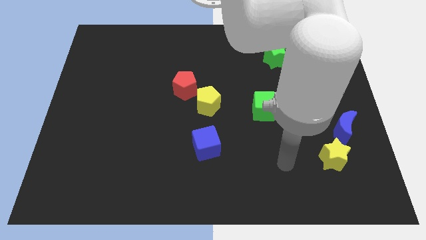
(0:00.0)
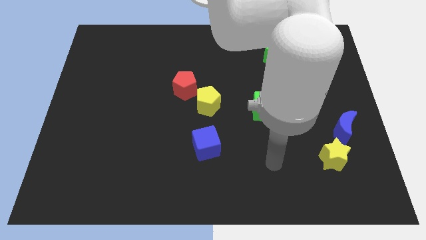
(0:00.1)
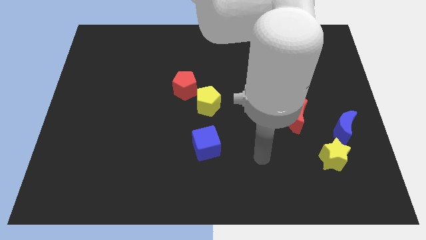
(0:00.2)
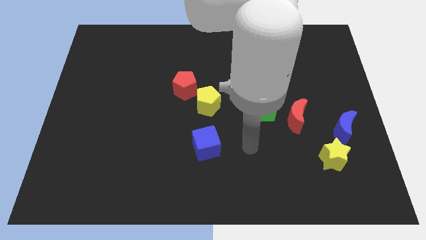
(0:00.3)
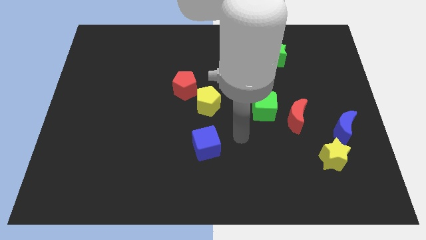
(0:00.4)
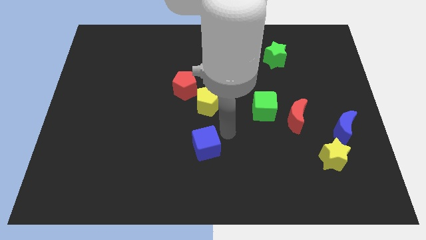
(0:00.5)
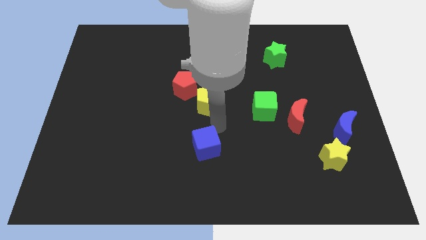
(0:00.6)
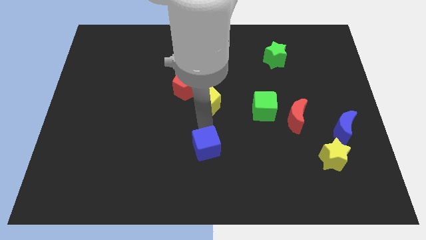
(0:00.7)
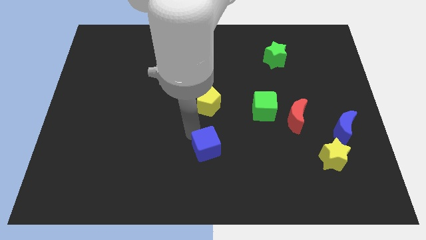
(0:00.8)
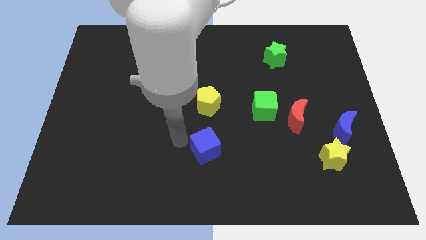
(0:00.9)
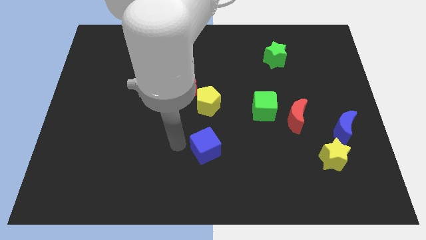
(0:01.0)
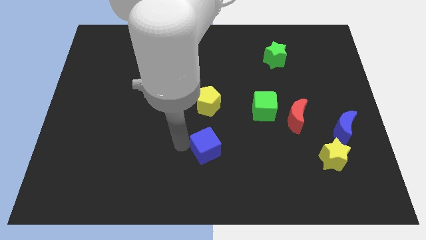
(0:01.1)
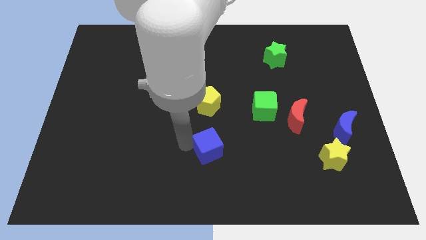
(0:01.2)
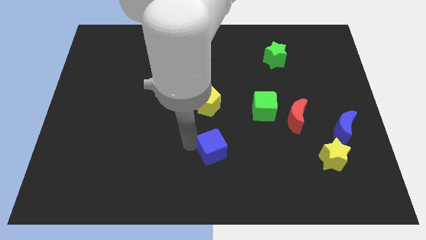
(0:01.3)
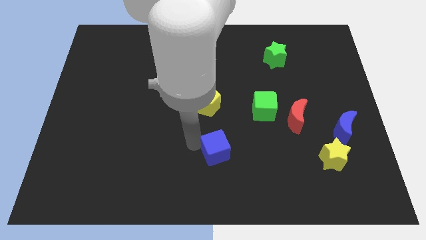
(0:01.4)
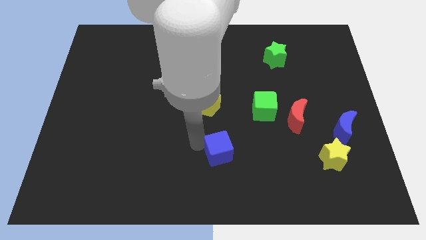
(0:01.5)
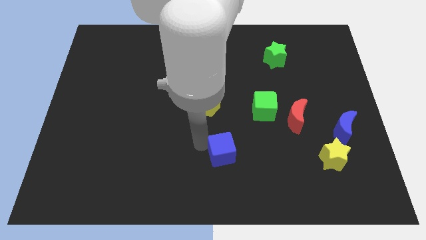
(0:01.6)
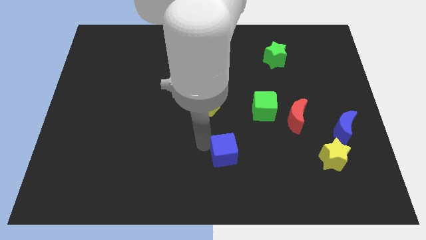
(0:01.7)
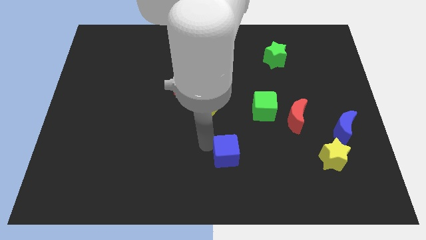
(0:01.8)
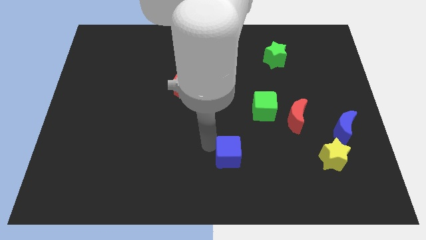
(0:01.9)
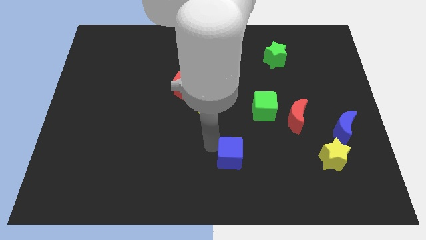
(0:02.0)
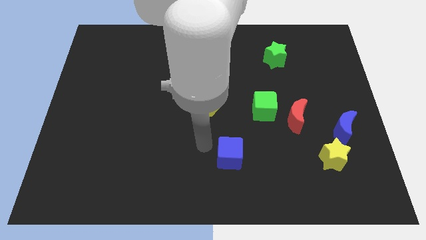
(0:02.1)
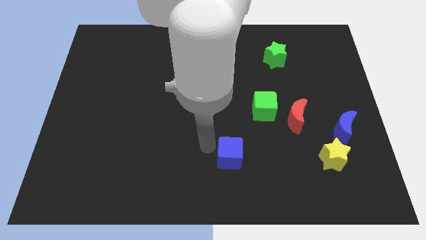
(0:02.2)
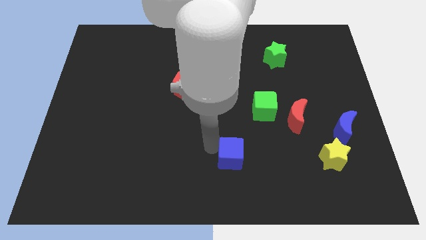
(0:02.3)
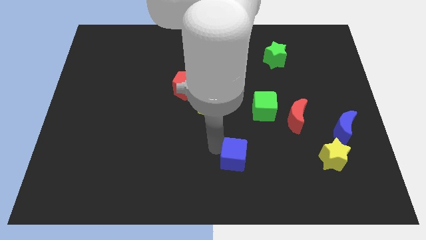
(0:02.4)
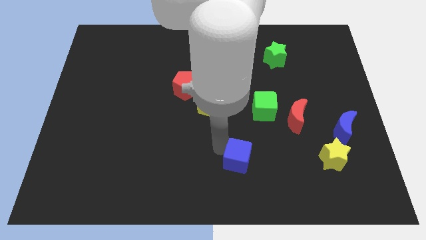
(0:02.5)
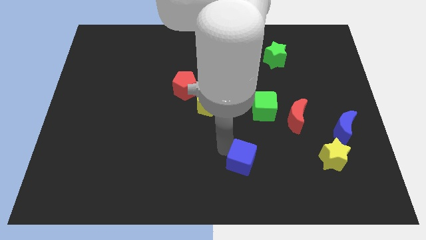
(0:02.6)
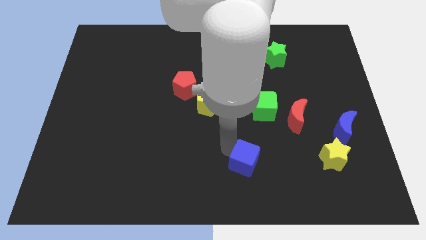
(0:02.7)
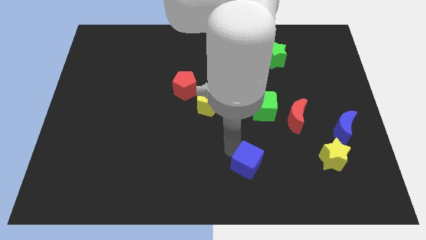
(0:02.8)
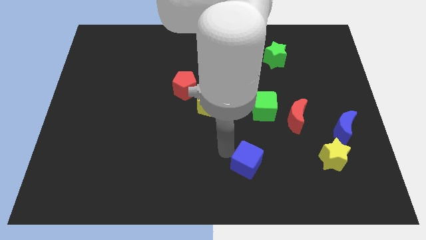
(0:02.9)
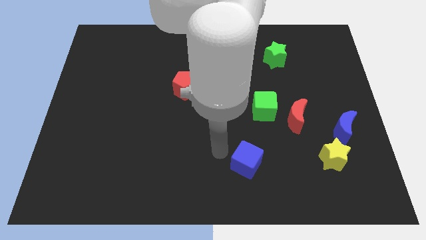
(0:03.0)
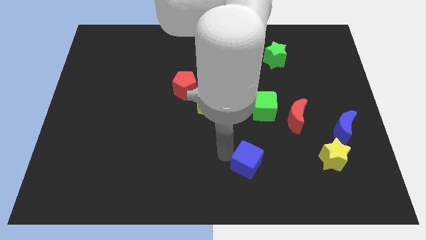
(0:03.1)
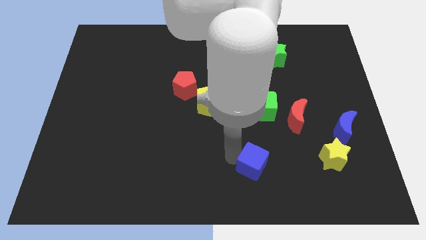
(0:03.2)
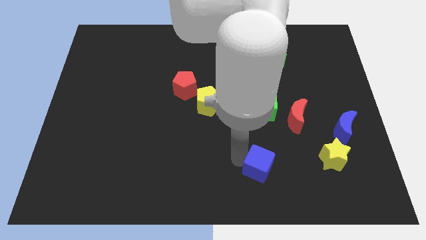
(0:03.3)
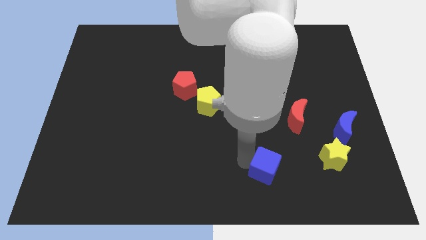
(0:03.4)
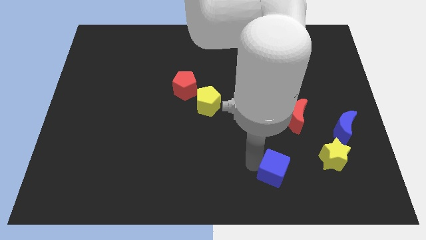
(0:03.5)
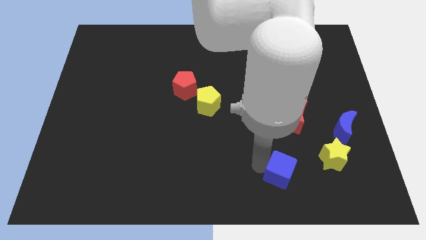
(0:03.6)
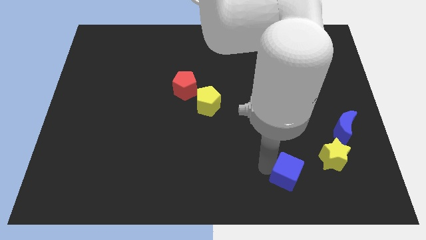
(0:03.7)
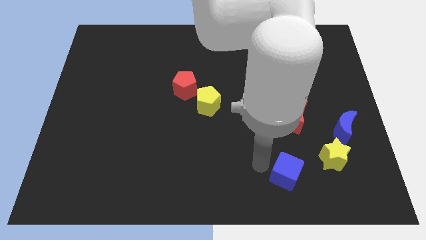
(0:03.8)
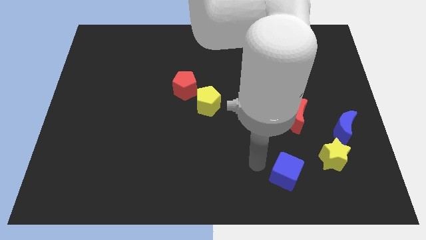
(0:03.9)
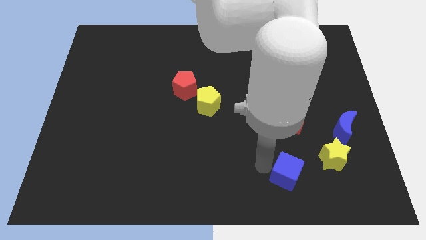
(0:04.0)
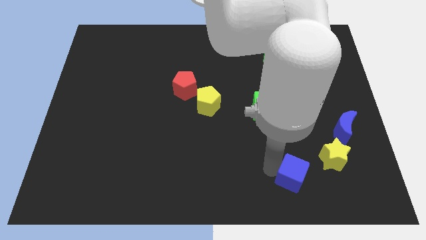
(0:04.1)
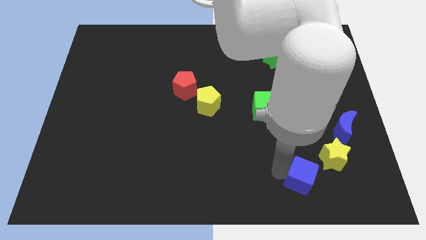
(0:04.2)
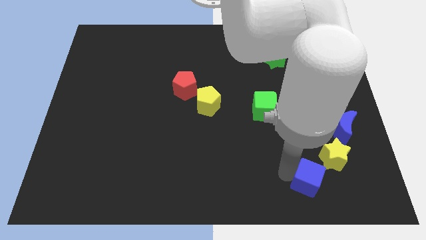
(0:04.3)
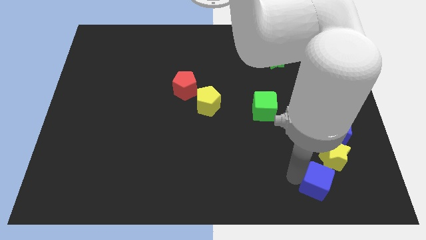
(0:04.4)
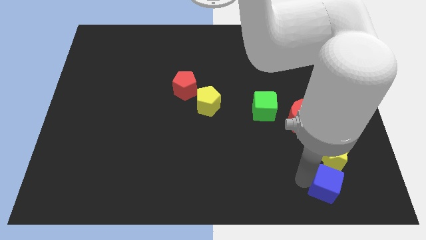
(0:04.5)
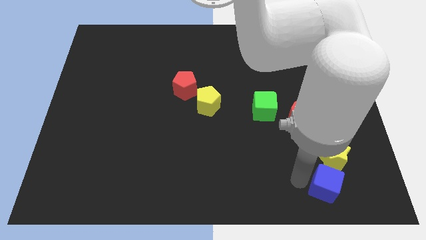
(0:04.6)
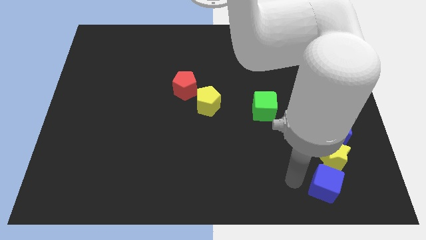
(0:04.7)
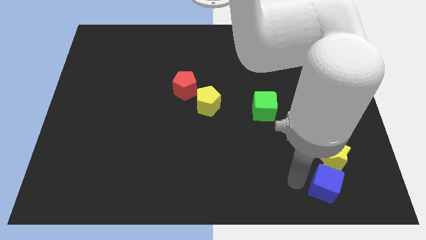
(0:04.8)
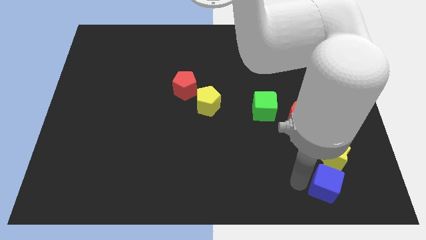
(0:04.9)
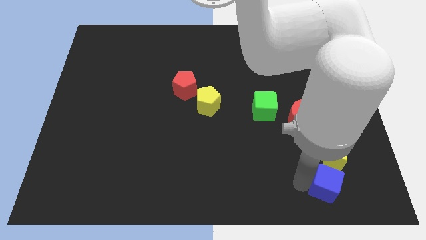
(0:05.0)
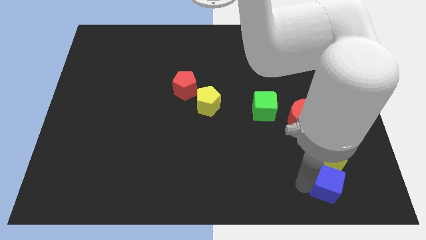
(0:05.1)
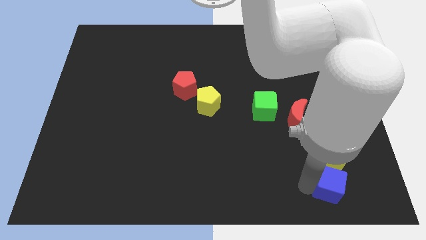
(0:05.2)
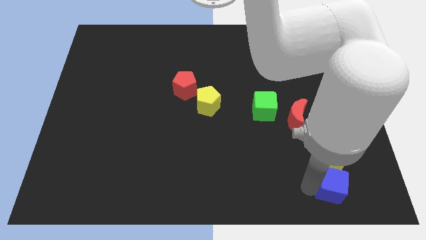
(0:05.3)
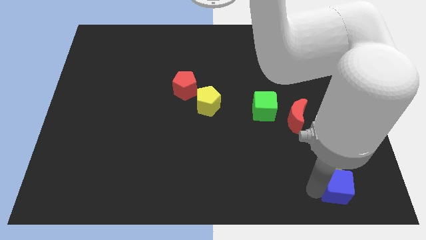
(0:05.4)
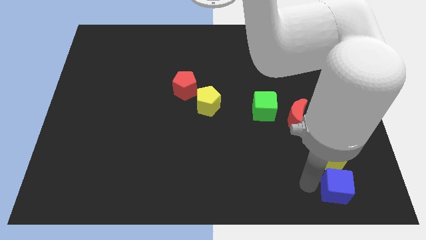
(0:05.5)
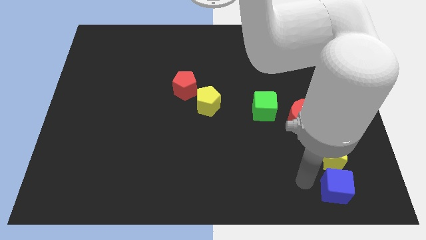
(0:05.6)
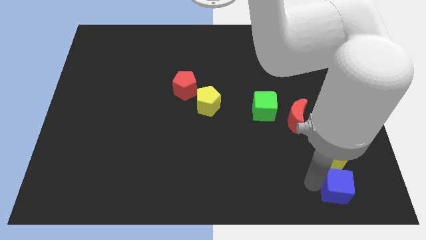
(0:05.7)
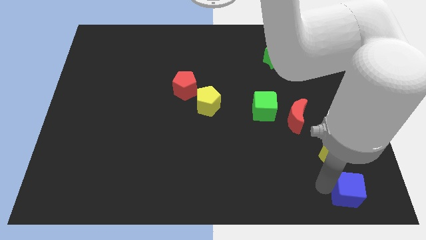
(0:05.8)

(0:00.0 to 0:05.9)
move the blue cube to the lower right corner
